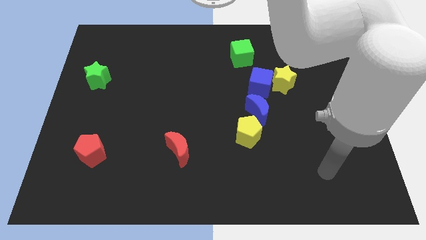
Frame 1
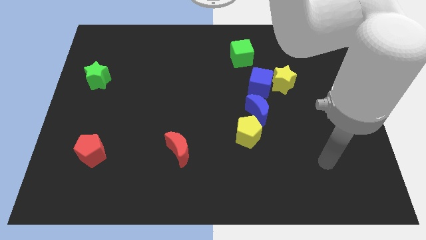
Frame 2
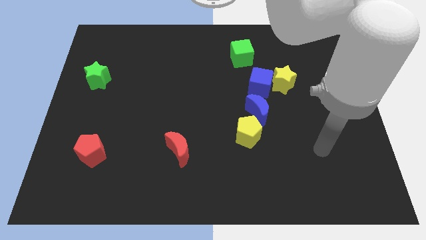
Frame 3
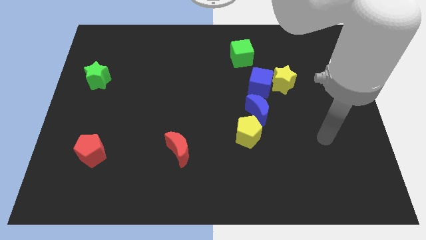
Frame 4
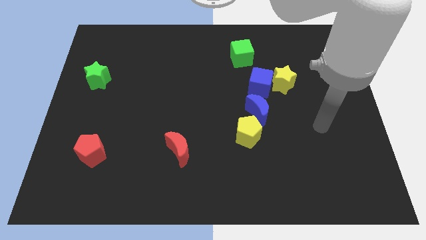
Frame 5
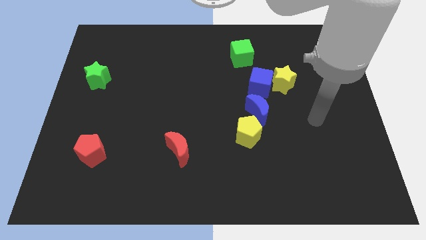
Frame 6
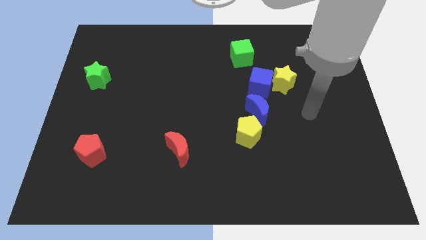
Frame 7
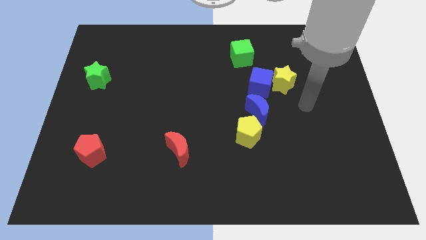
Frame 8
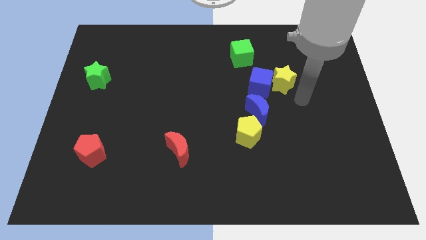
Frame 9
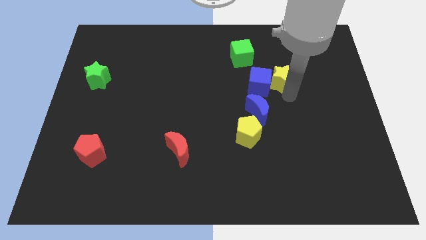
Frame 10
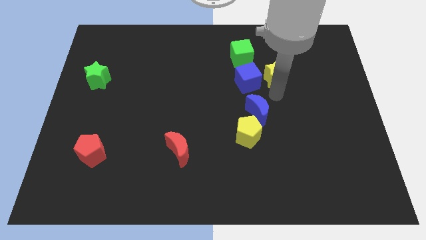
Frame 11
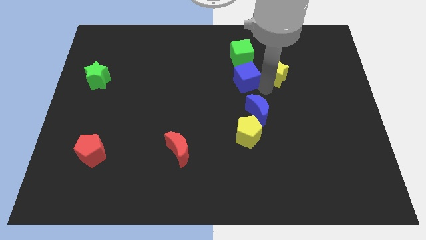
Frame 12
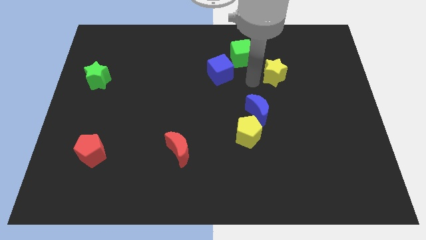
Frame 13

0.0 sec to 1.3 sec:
move the yellow star away from the blue cube

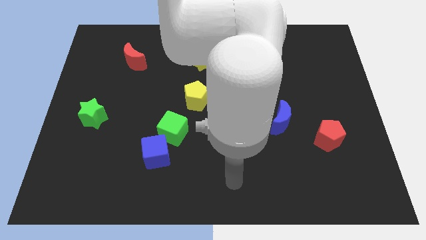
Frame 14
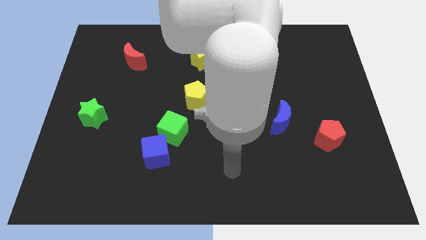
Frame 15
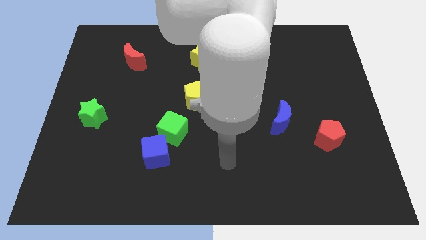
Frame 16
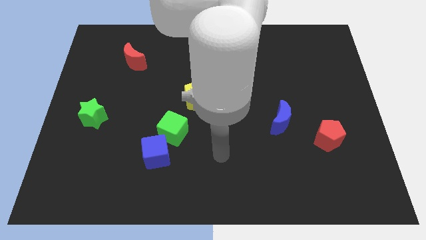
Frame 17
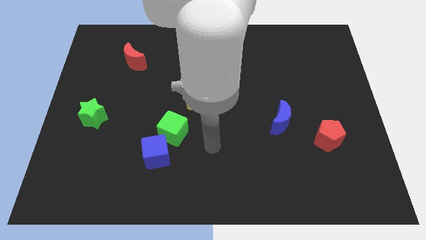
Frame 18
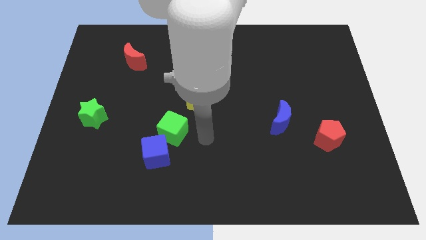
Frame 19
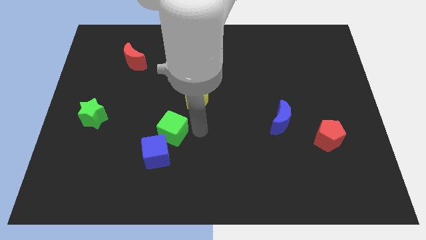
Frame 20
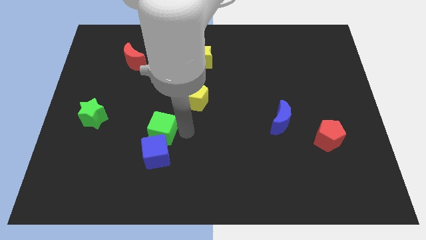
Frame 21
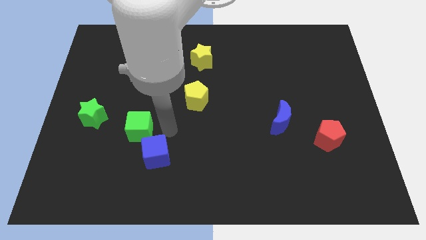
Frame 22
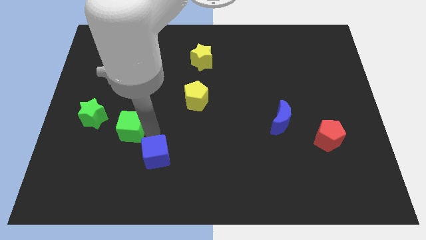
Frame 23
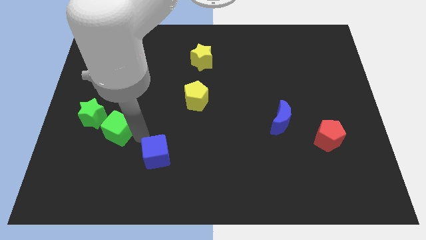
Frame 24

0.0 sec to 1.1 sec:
move the blue cube away from the green cube

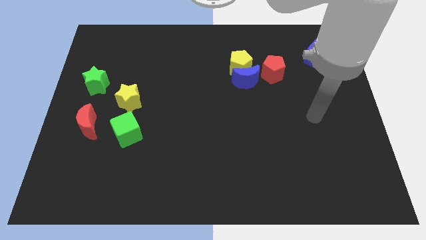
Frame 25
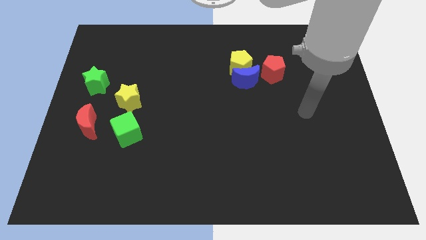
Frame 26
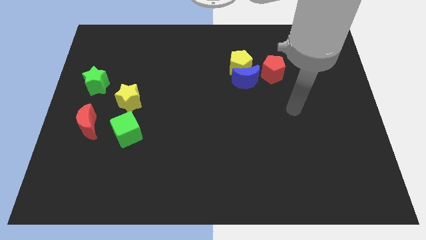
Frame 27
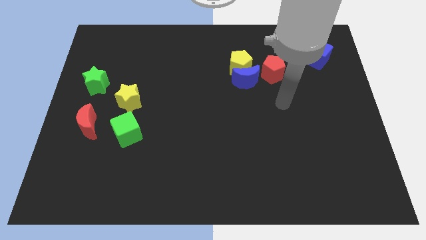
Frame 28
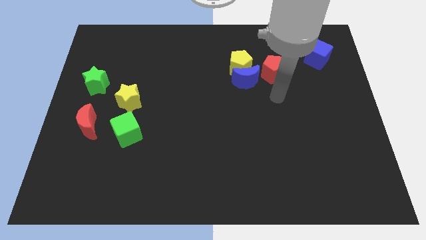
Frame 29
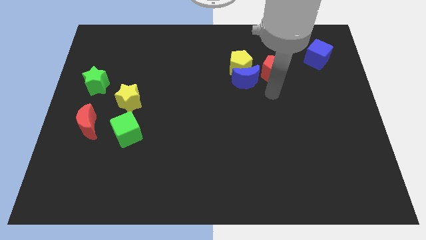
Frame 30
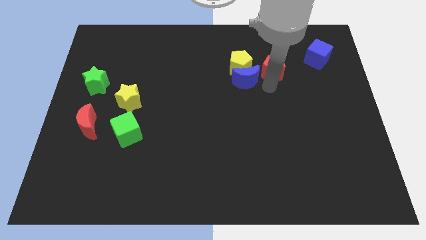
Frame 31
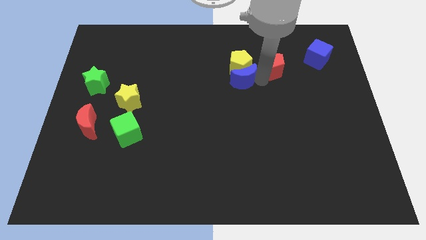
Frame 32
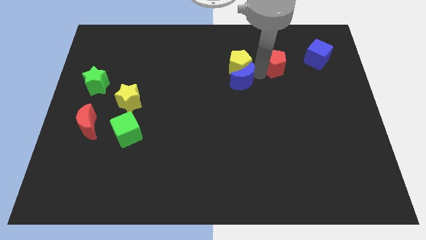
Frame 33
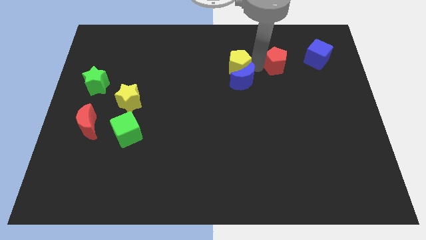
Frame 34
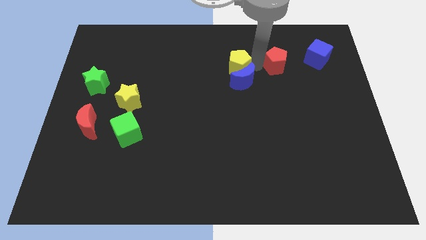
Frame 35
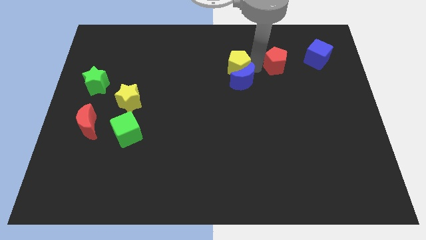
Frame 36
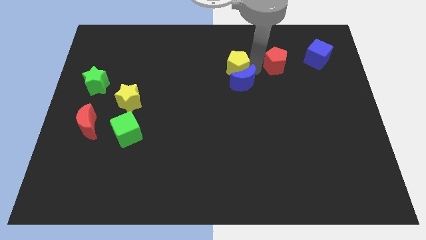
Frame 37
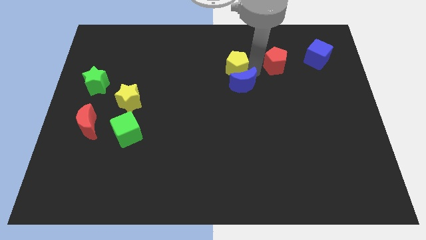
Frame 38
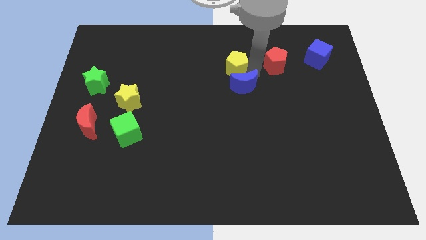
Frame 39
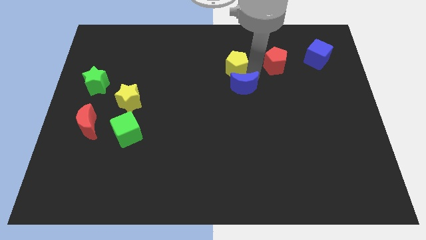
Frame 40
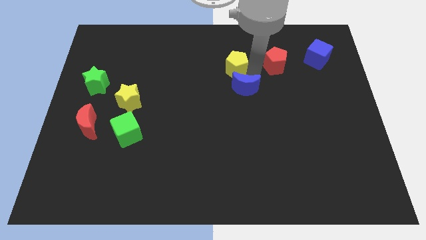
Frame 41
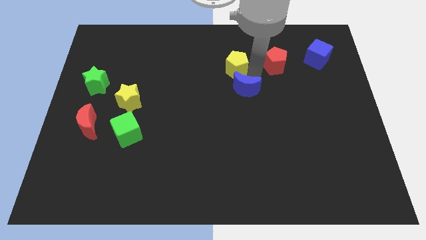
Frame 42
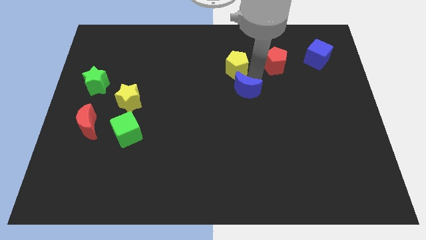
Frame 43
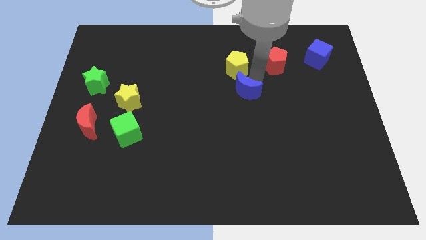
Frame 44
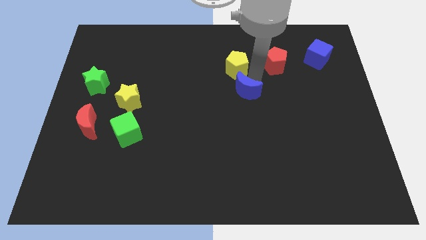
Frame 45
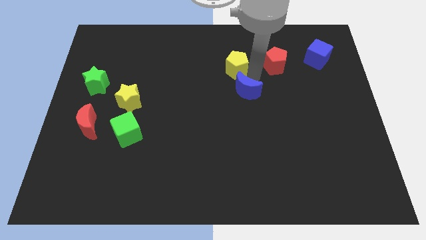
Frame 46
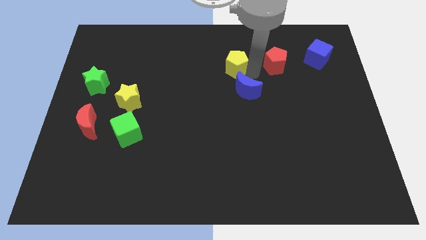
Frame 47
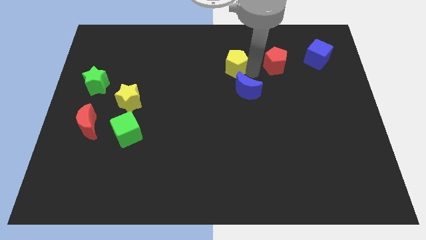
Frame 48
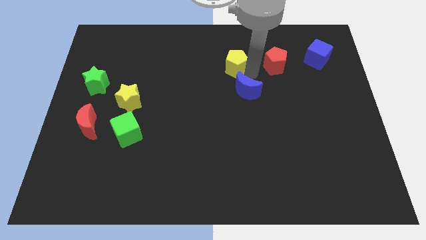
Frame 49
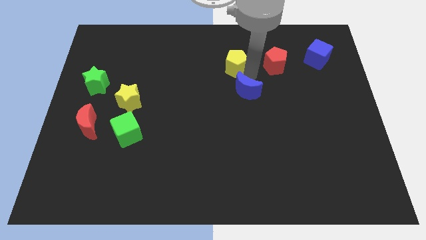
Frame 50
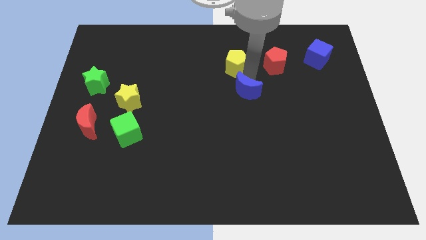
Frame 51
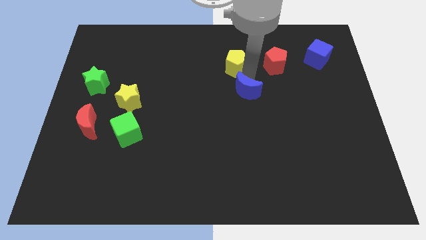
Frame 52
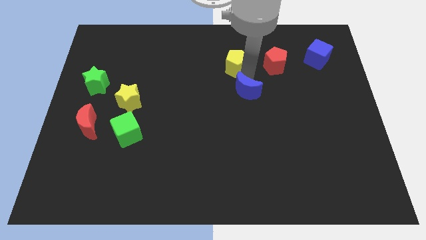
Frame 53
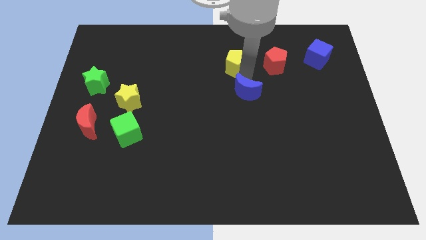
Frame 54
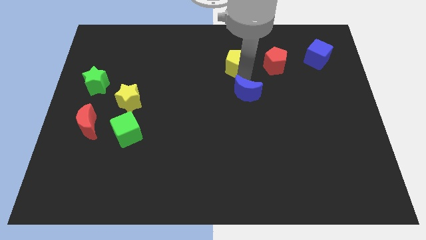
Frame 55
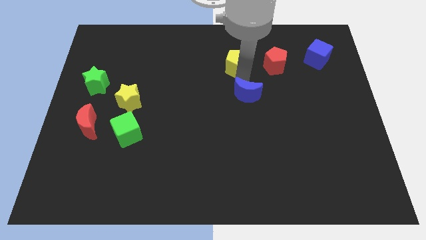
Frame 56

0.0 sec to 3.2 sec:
separate the blue moon from the yellow pentagon and red pentagon

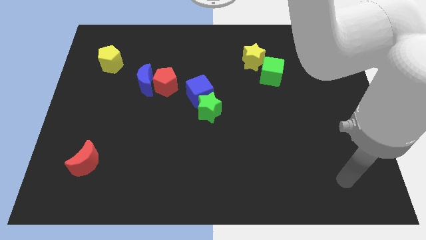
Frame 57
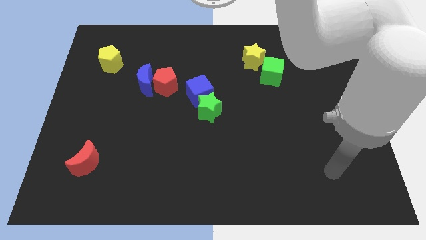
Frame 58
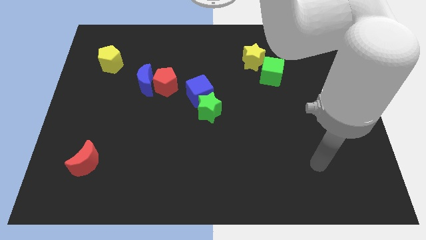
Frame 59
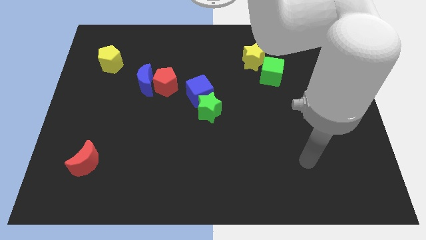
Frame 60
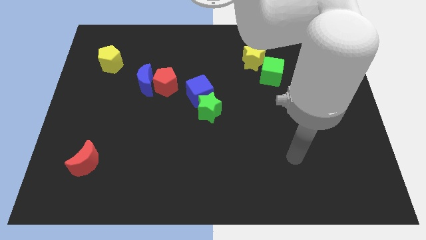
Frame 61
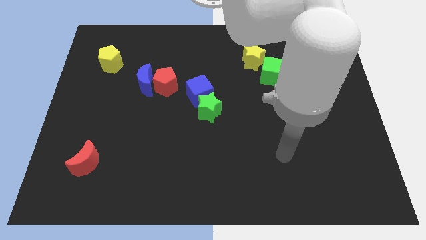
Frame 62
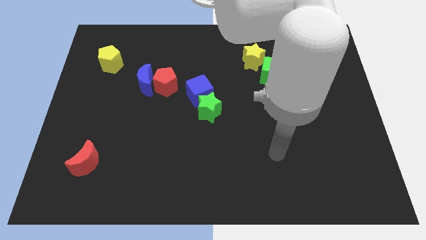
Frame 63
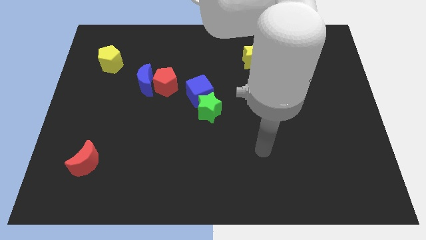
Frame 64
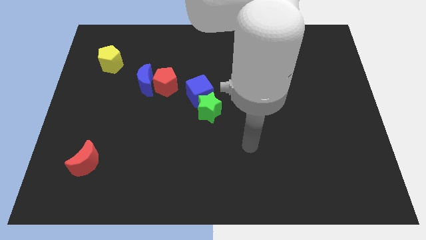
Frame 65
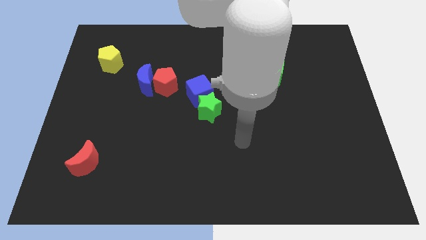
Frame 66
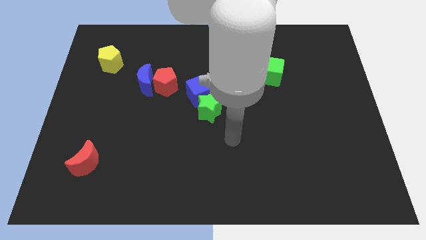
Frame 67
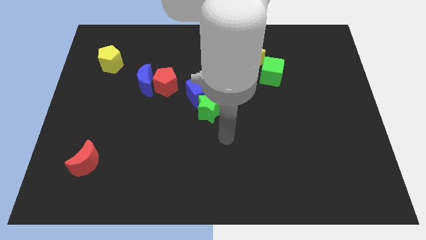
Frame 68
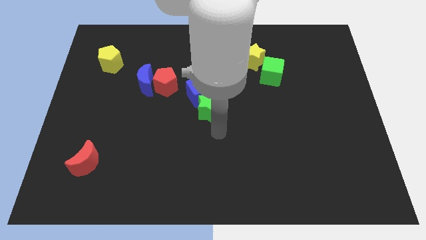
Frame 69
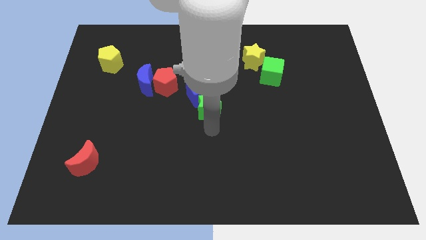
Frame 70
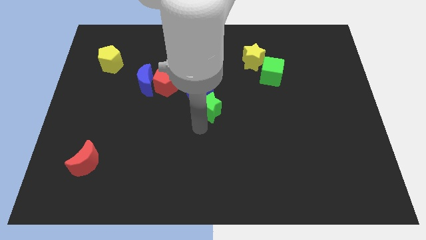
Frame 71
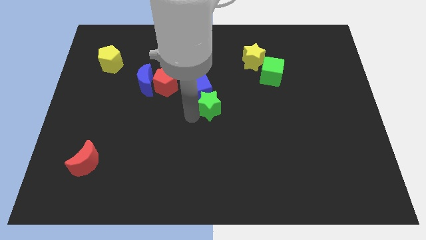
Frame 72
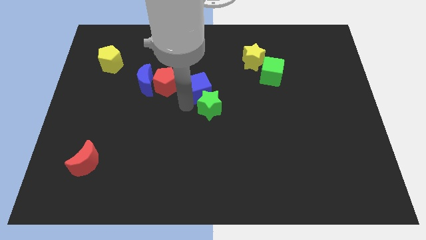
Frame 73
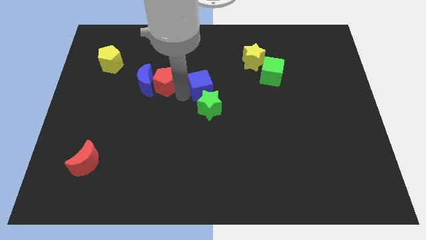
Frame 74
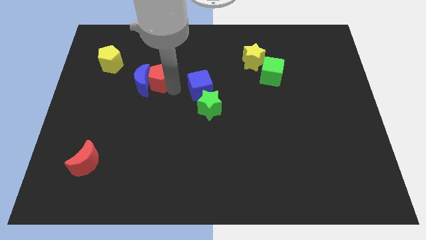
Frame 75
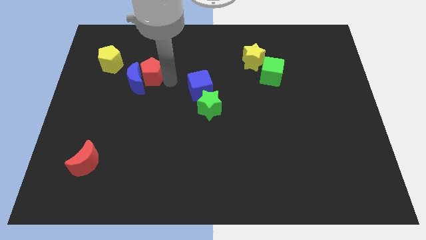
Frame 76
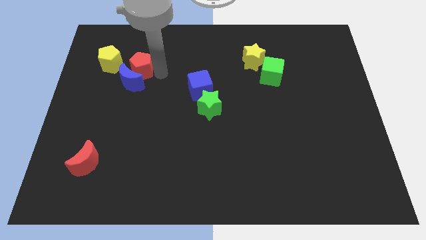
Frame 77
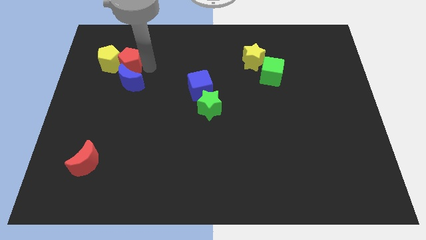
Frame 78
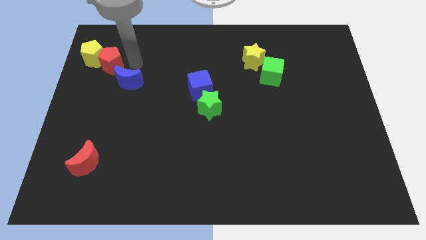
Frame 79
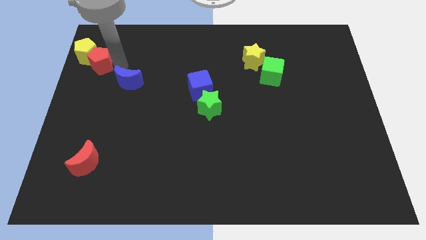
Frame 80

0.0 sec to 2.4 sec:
move the blue moon away from the red pentagon

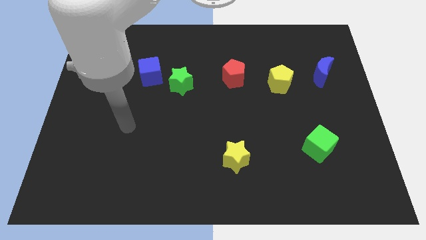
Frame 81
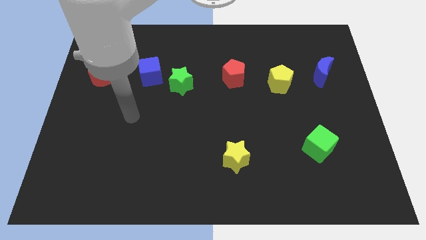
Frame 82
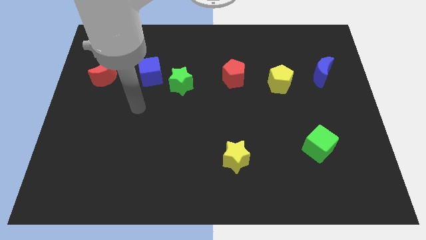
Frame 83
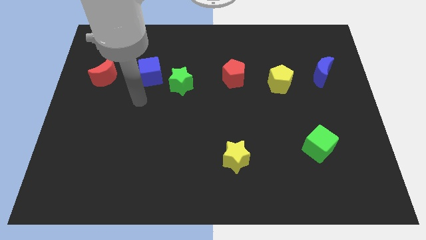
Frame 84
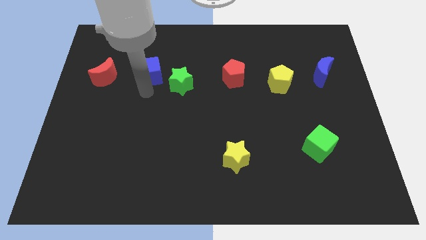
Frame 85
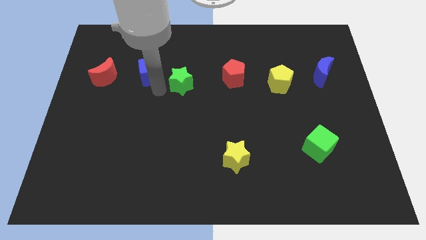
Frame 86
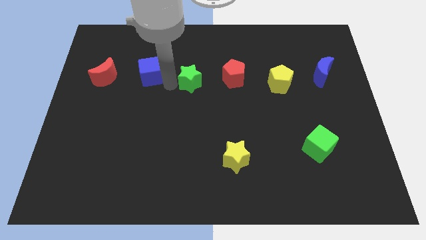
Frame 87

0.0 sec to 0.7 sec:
move the blue cube away from the green star

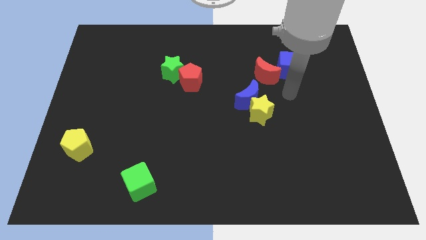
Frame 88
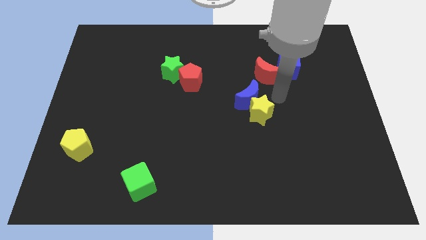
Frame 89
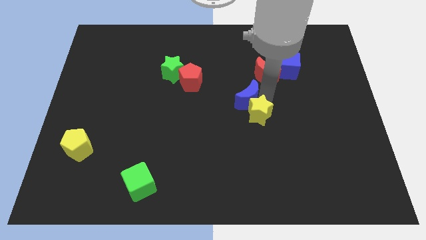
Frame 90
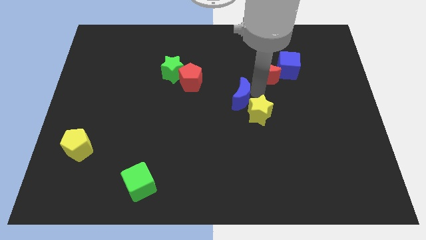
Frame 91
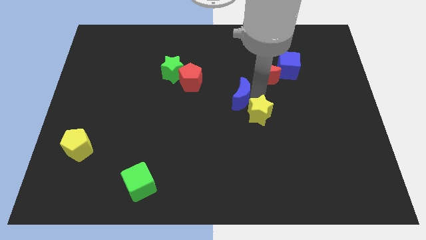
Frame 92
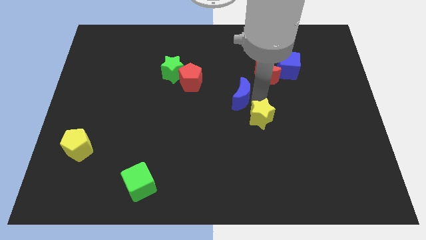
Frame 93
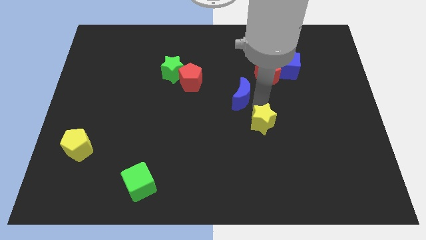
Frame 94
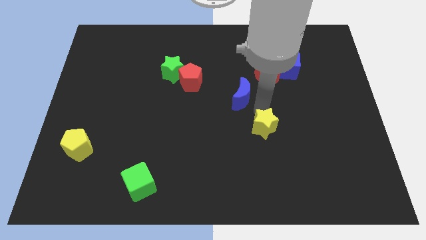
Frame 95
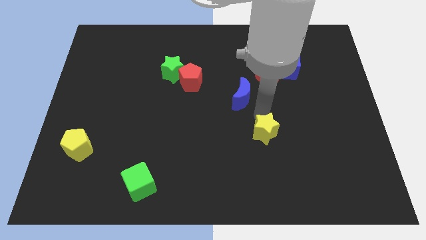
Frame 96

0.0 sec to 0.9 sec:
separate the yellow star from the blue moon
